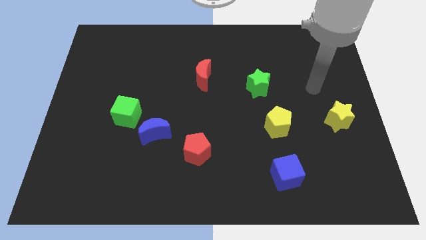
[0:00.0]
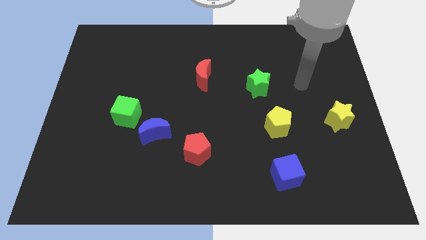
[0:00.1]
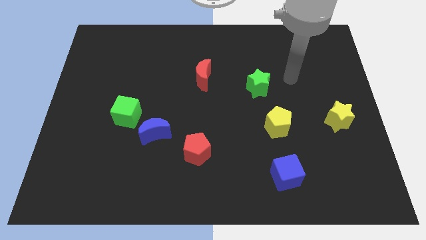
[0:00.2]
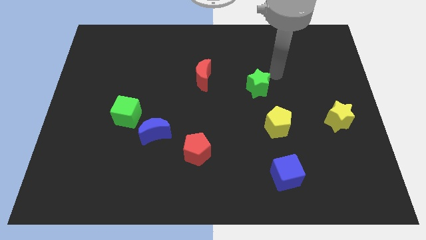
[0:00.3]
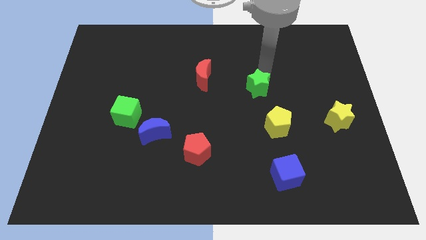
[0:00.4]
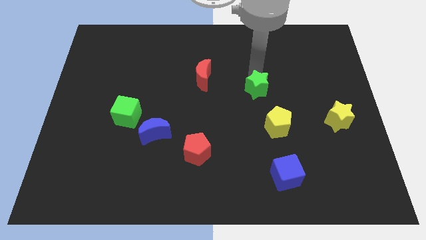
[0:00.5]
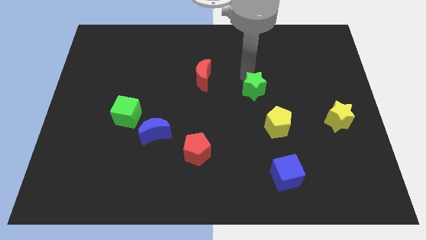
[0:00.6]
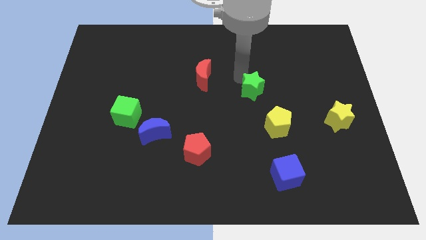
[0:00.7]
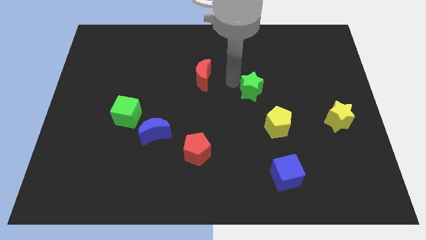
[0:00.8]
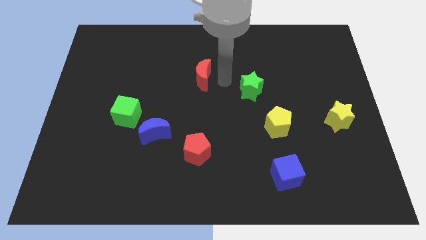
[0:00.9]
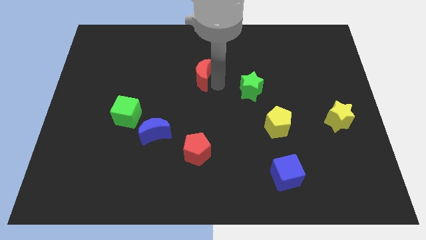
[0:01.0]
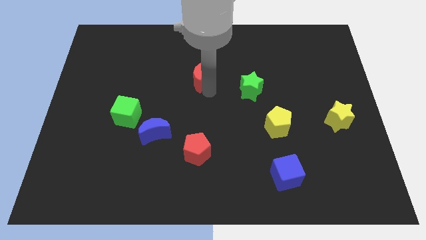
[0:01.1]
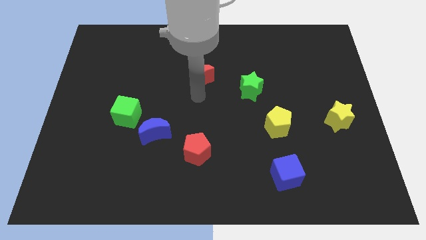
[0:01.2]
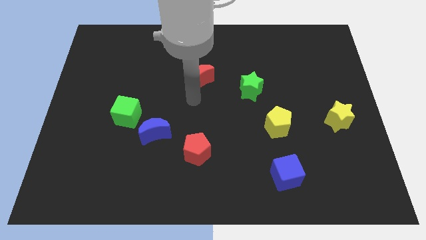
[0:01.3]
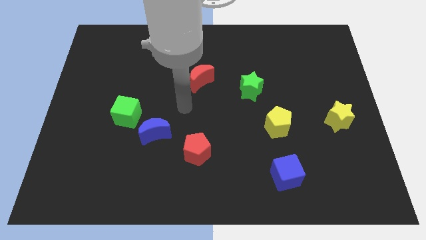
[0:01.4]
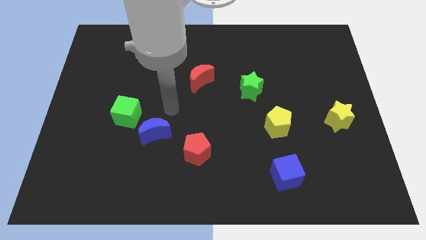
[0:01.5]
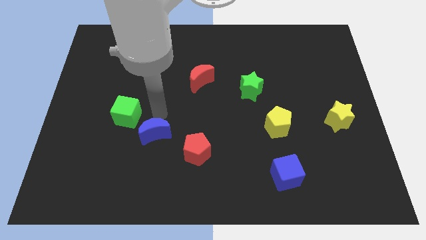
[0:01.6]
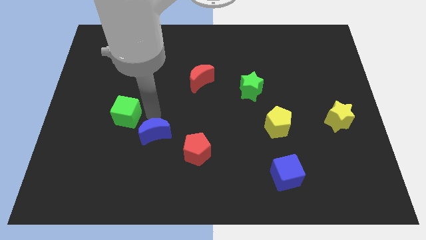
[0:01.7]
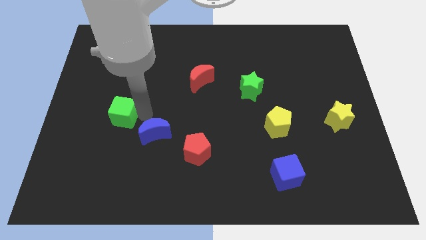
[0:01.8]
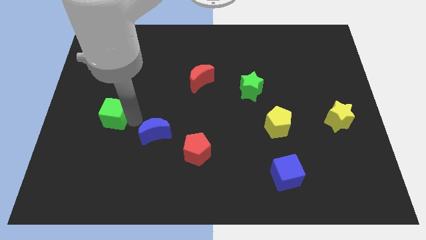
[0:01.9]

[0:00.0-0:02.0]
pull the blue moon apart from the green cube

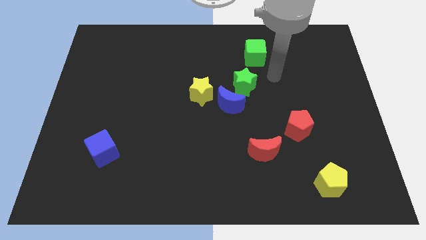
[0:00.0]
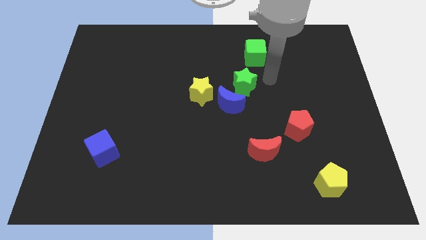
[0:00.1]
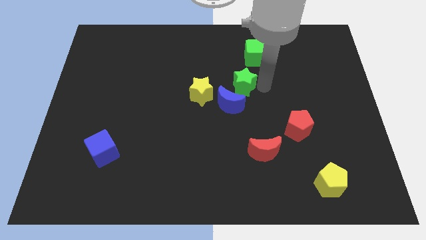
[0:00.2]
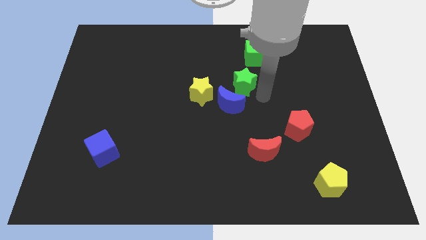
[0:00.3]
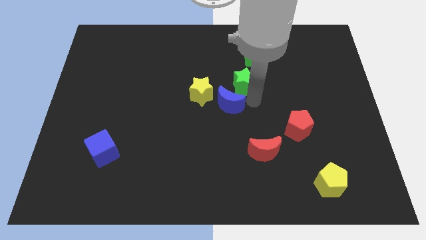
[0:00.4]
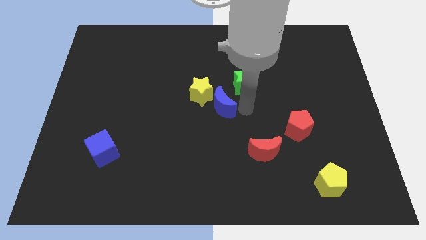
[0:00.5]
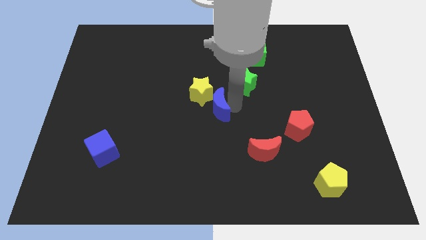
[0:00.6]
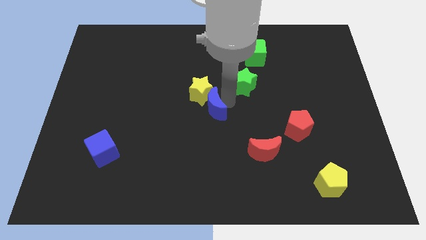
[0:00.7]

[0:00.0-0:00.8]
move the green star away from the blue moon

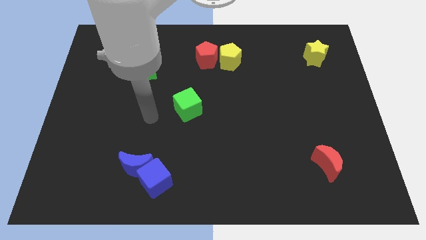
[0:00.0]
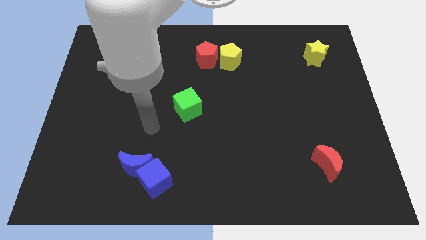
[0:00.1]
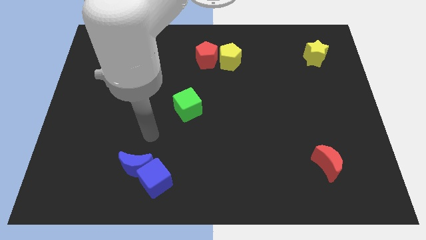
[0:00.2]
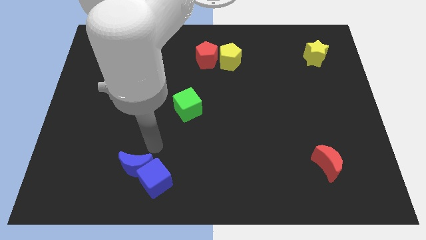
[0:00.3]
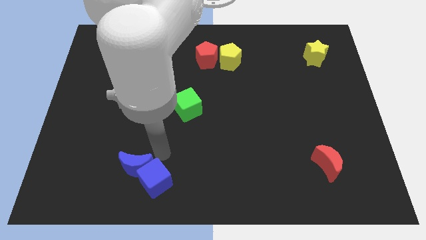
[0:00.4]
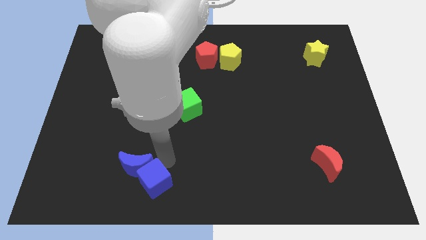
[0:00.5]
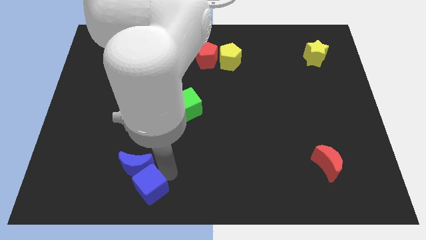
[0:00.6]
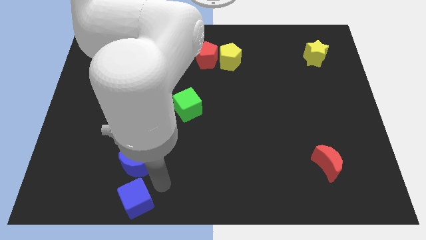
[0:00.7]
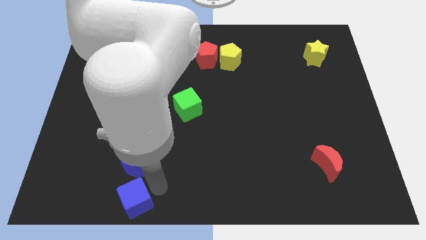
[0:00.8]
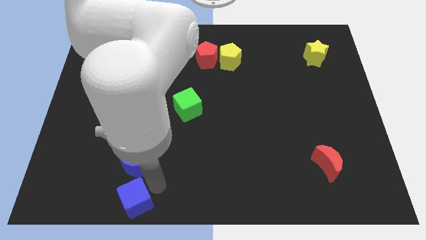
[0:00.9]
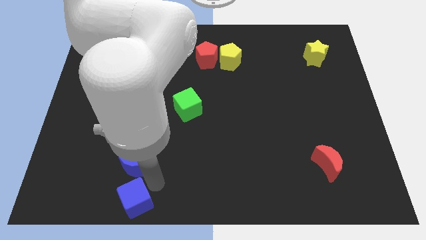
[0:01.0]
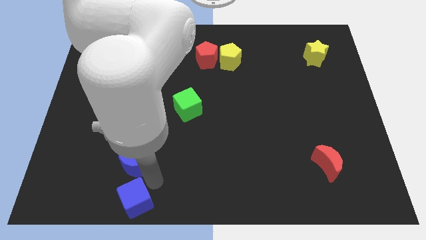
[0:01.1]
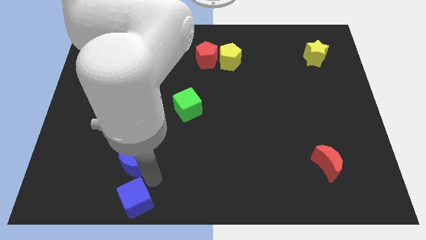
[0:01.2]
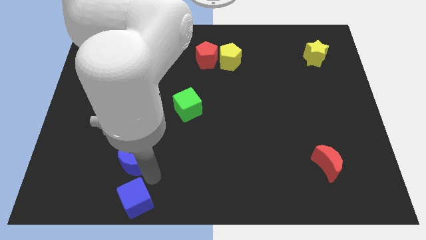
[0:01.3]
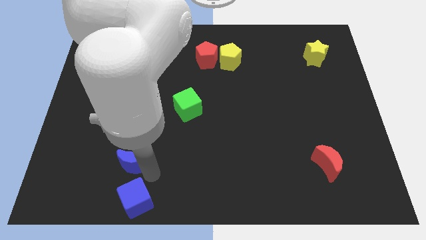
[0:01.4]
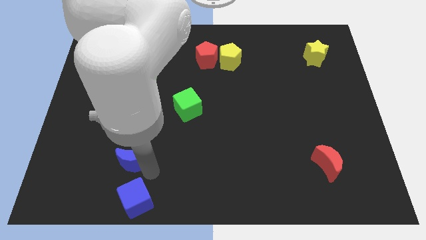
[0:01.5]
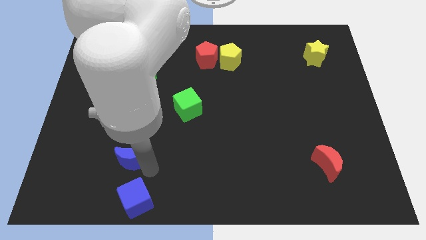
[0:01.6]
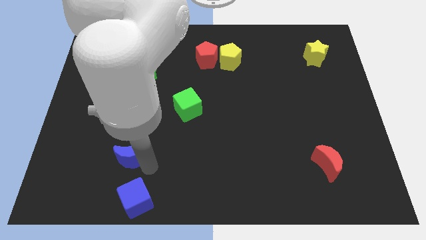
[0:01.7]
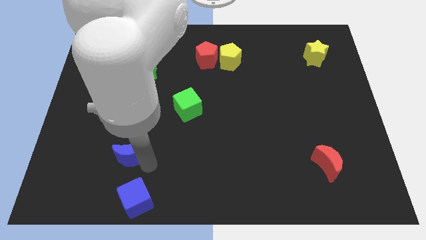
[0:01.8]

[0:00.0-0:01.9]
pull the blue moon apart from the blue cube

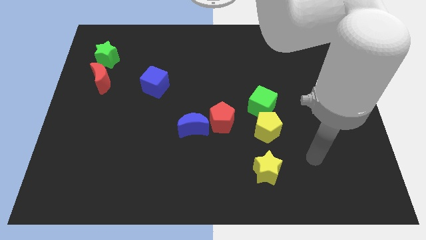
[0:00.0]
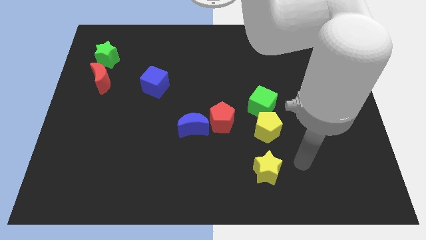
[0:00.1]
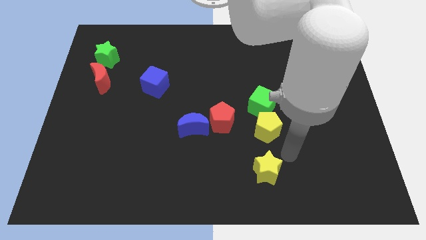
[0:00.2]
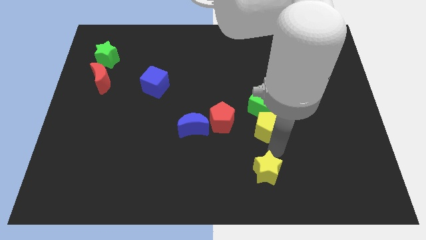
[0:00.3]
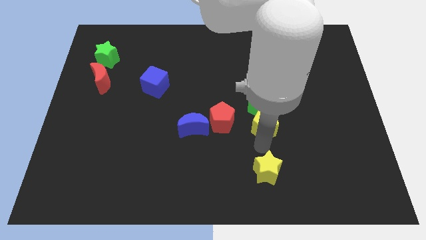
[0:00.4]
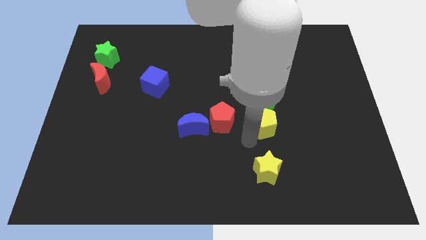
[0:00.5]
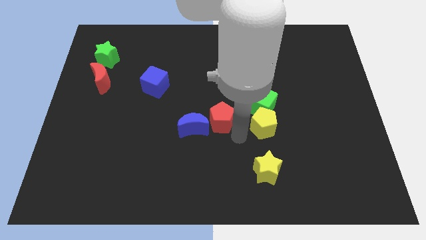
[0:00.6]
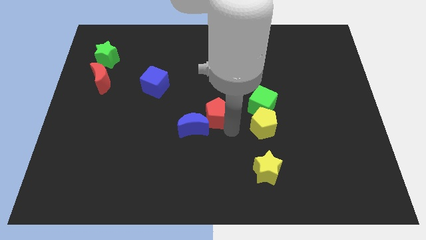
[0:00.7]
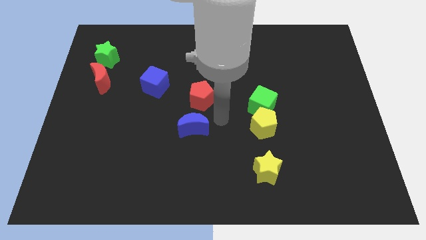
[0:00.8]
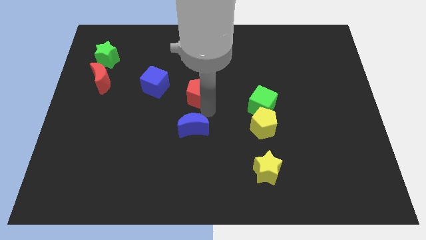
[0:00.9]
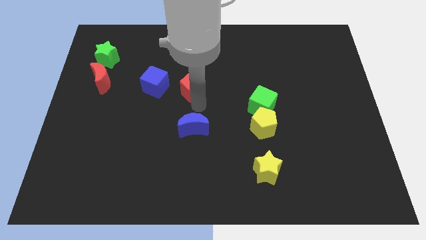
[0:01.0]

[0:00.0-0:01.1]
move the blue moon away from the red pentagon

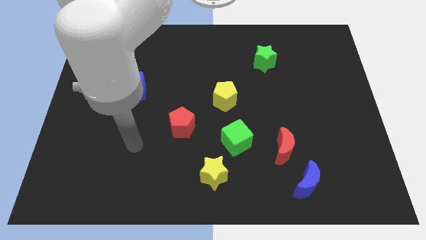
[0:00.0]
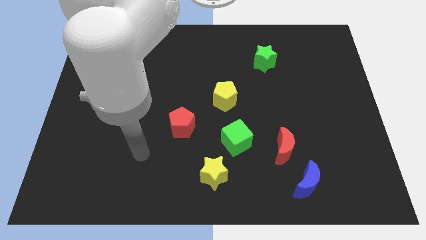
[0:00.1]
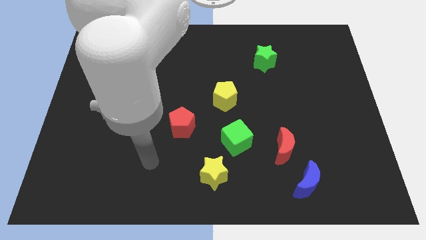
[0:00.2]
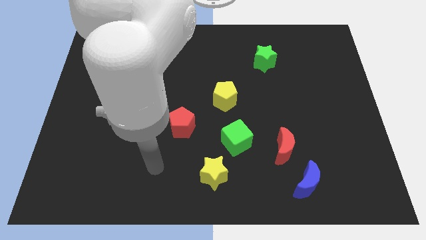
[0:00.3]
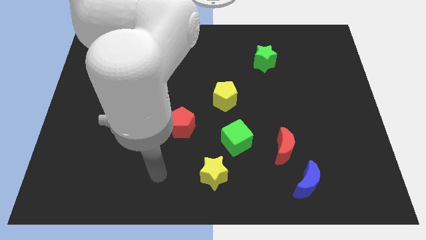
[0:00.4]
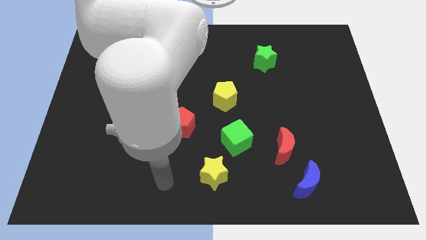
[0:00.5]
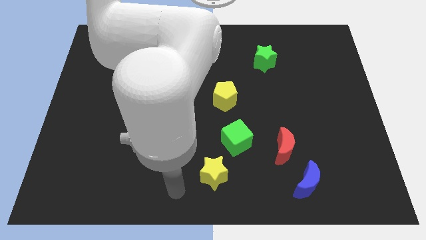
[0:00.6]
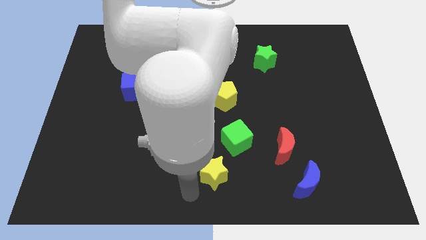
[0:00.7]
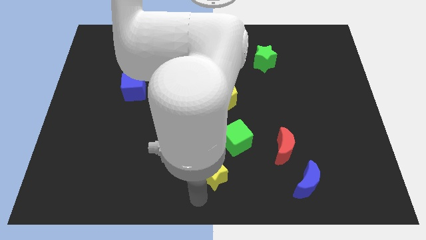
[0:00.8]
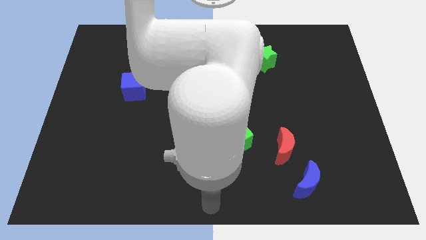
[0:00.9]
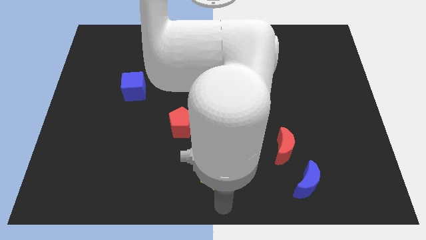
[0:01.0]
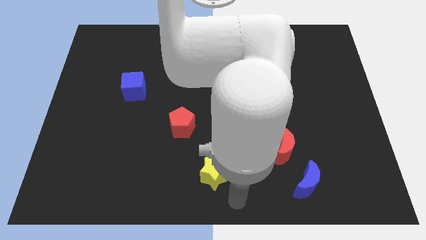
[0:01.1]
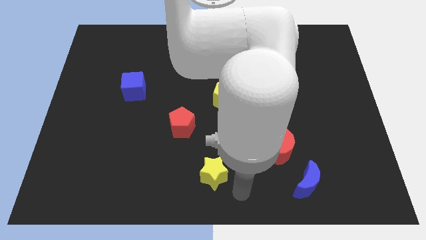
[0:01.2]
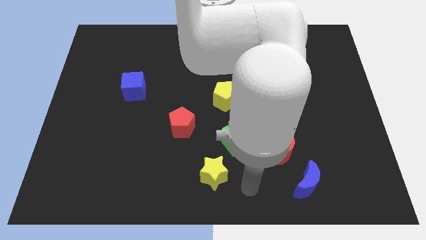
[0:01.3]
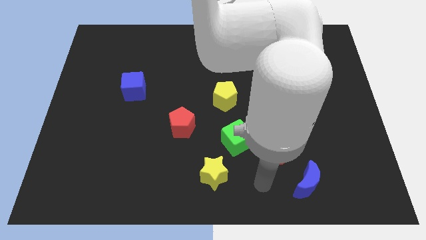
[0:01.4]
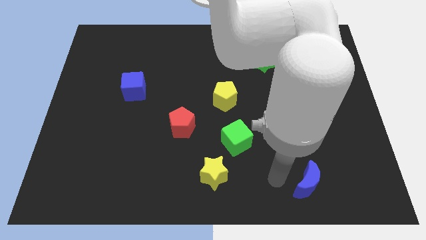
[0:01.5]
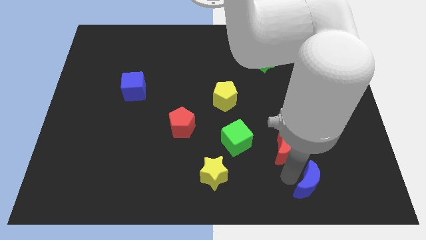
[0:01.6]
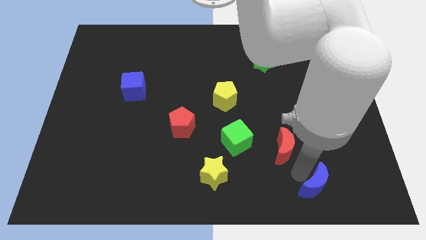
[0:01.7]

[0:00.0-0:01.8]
separate the red moon from the blue moon

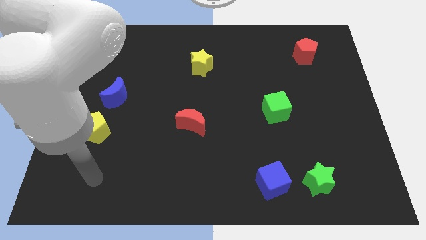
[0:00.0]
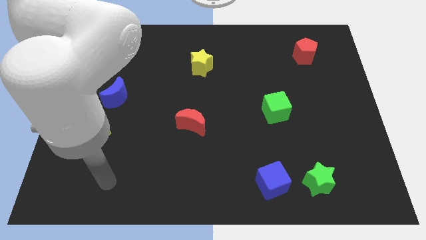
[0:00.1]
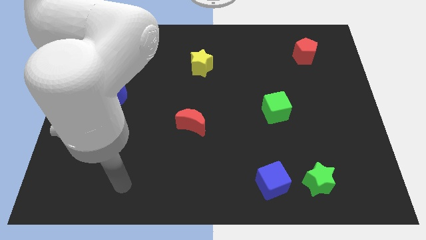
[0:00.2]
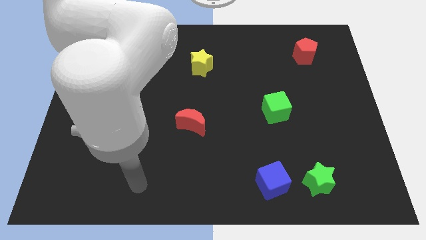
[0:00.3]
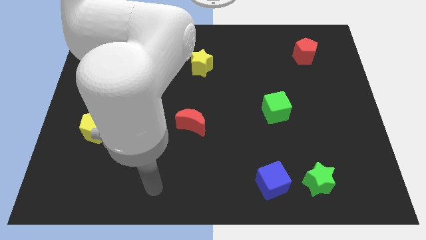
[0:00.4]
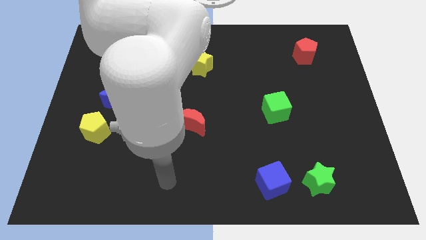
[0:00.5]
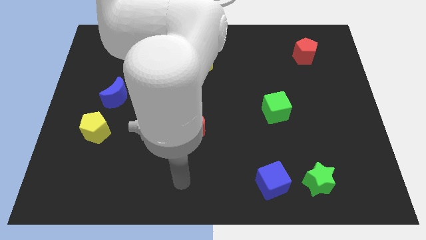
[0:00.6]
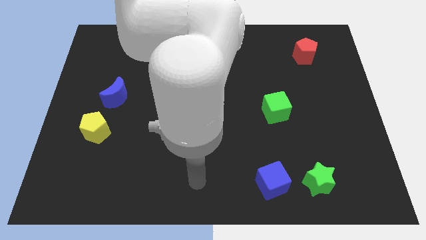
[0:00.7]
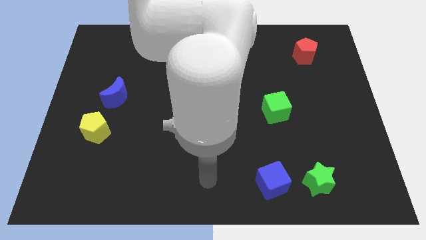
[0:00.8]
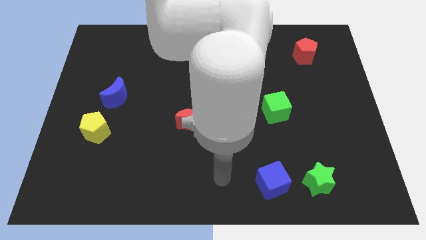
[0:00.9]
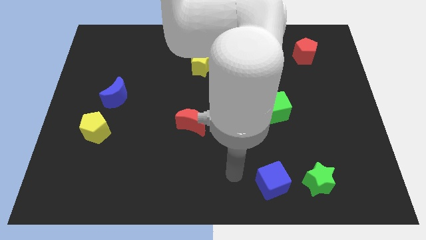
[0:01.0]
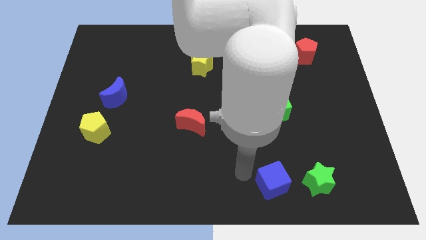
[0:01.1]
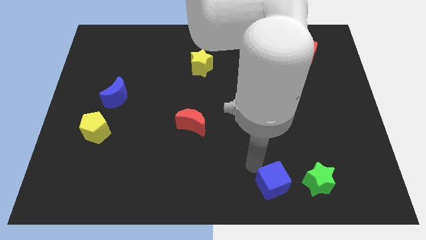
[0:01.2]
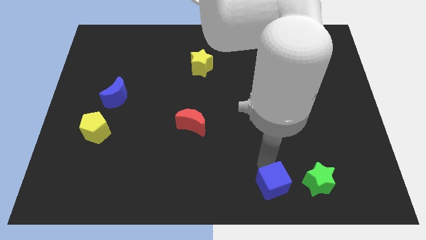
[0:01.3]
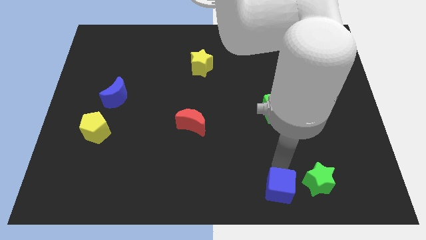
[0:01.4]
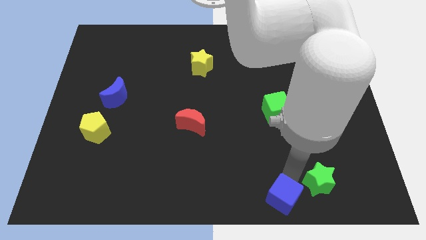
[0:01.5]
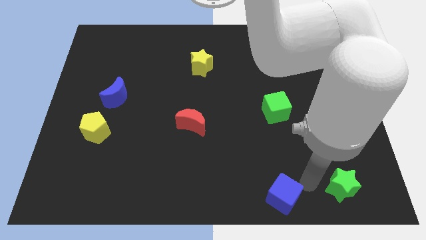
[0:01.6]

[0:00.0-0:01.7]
separate the blue cube from the green star
